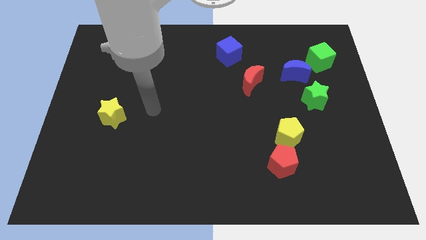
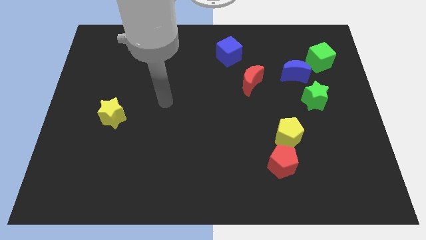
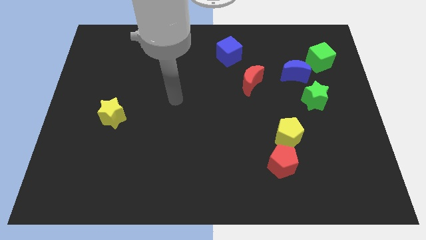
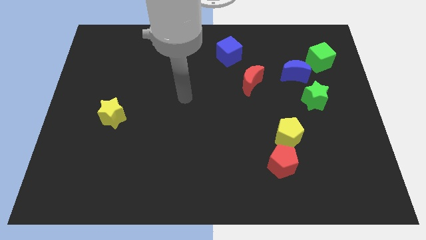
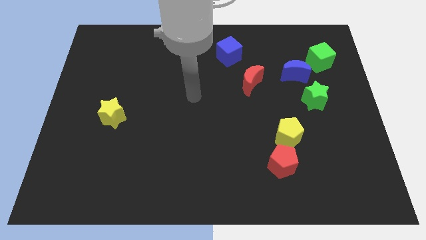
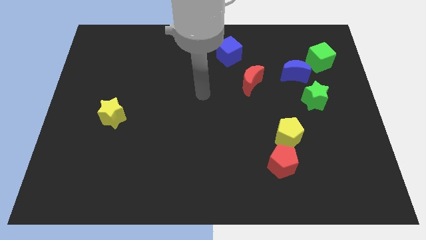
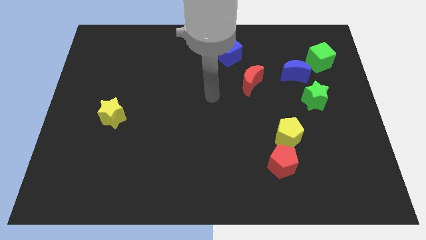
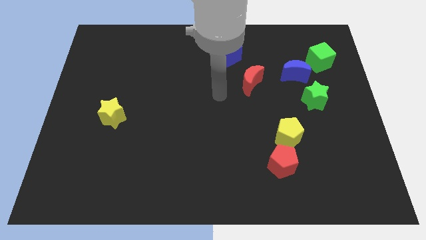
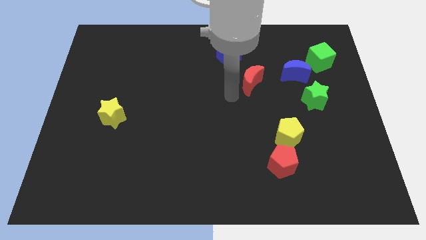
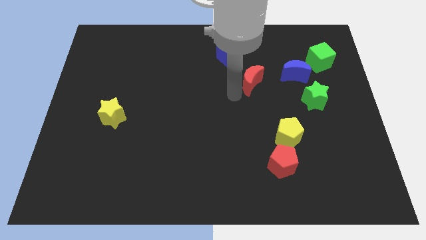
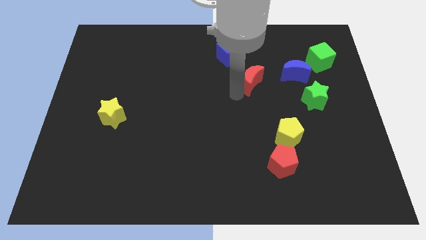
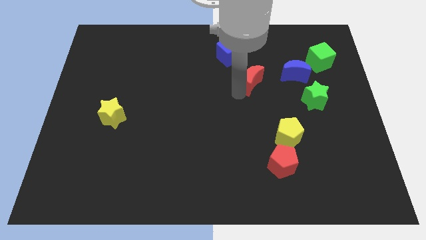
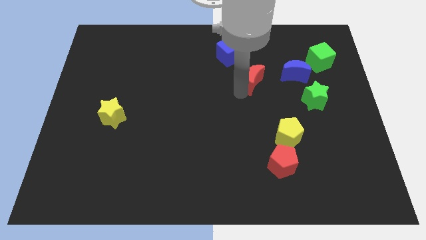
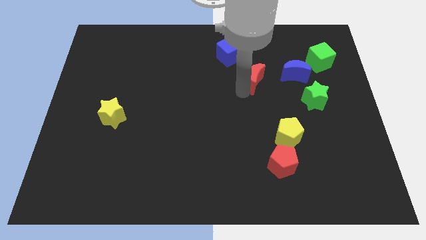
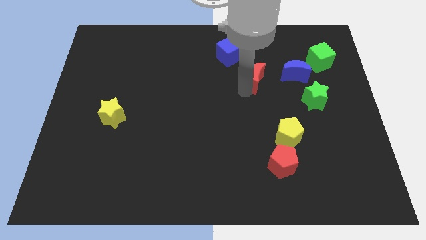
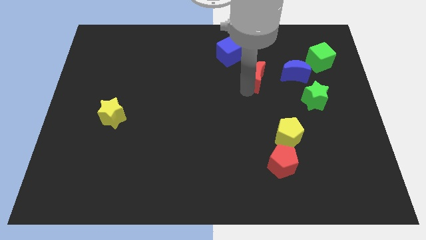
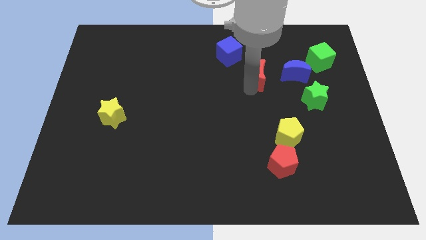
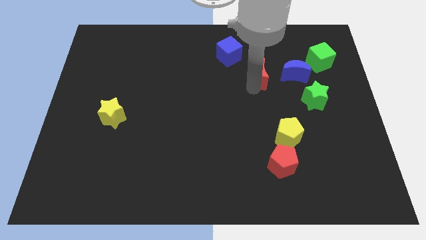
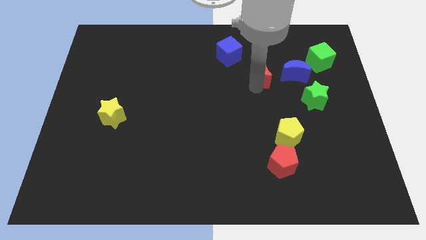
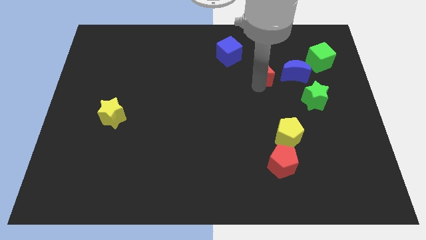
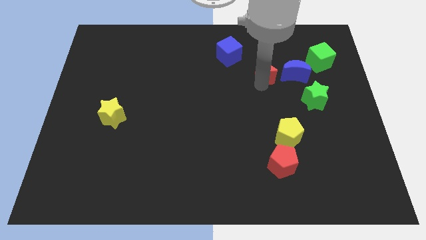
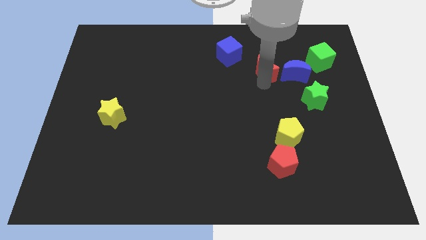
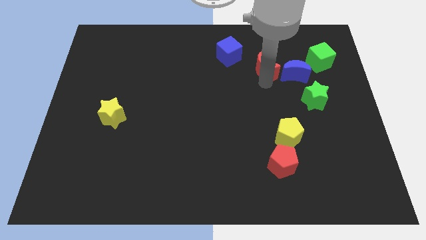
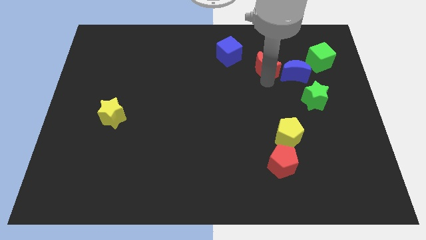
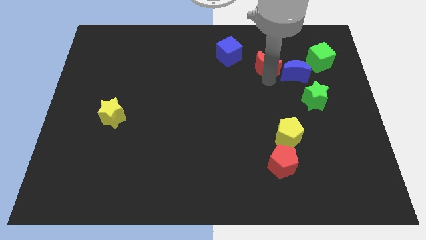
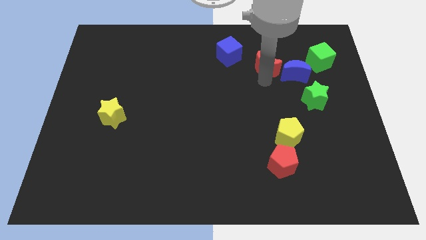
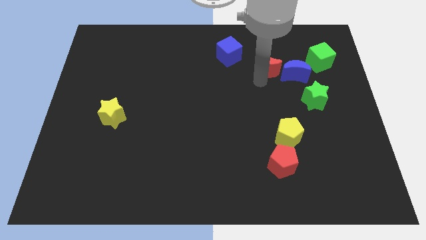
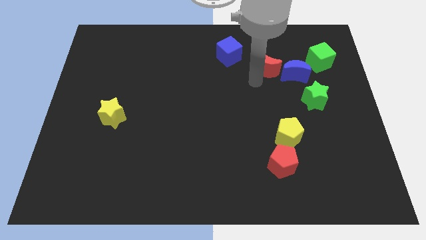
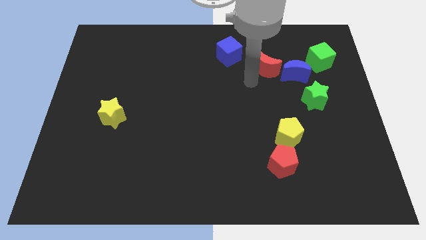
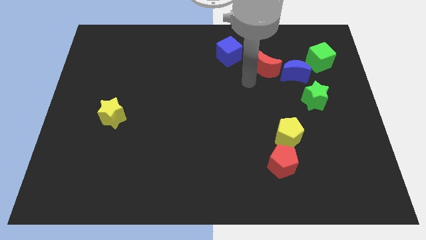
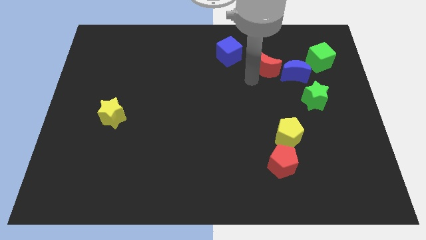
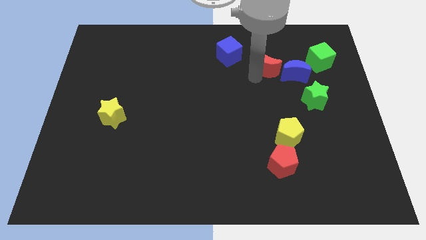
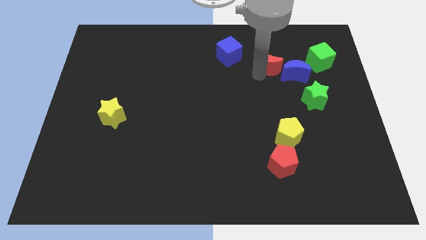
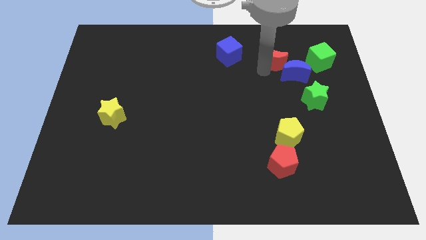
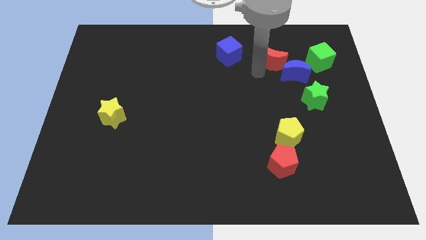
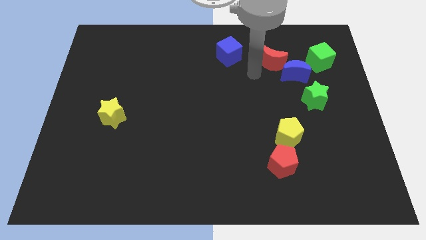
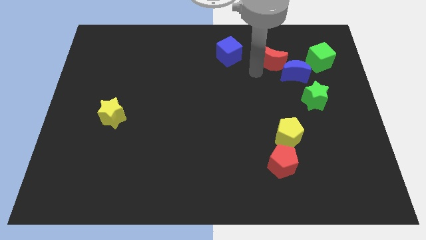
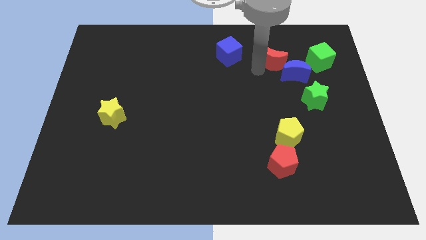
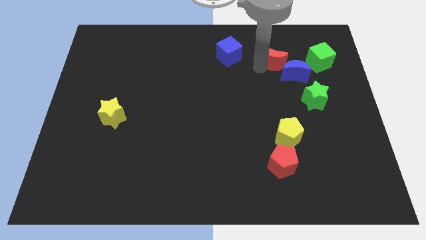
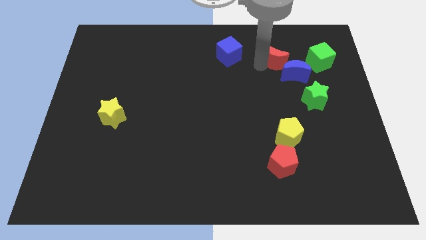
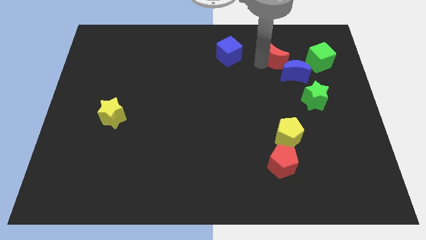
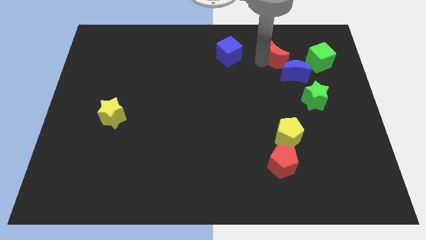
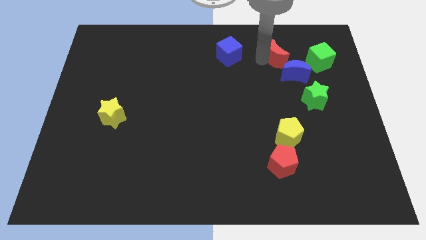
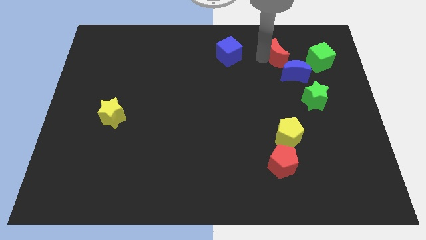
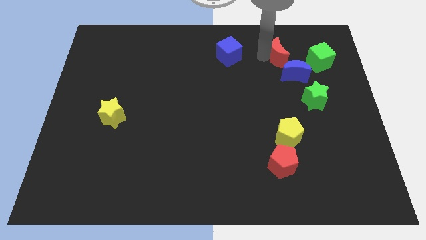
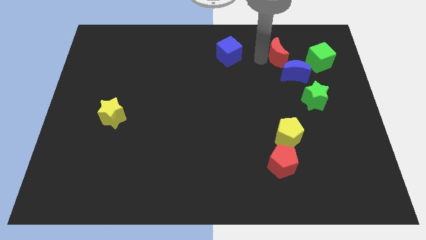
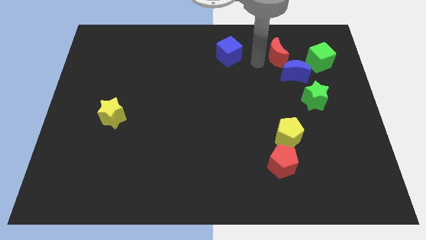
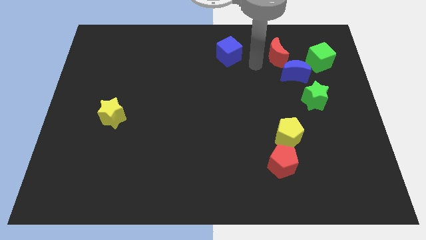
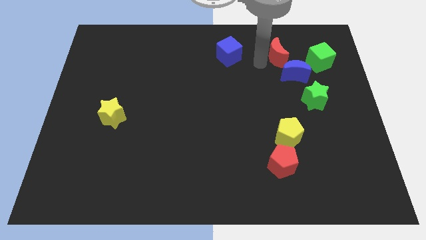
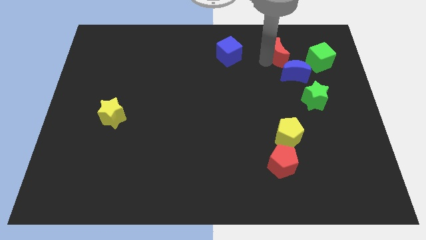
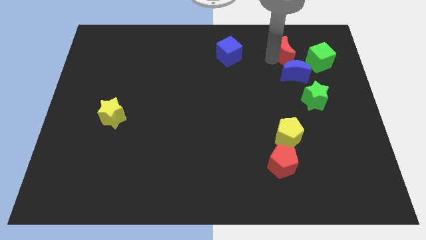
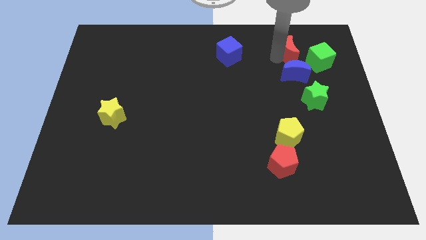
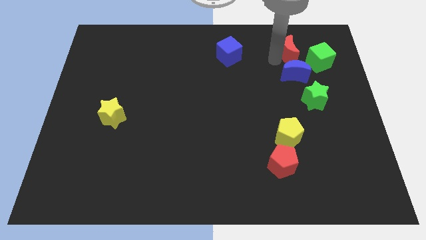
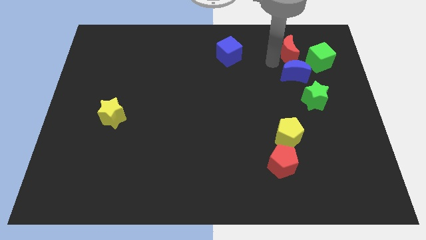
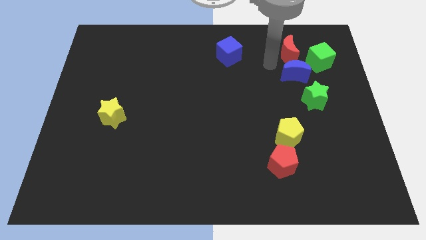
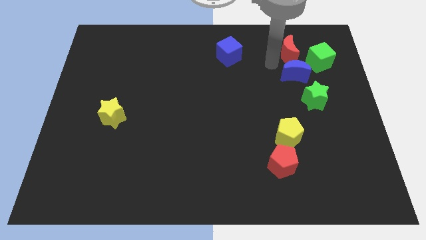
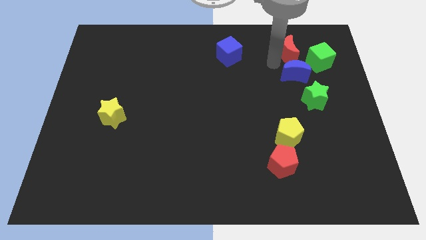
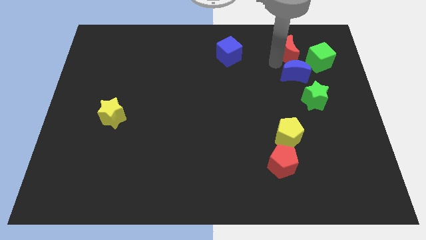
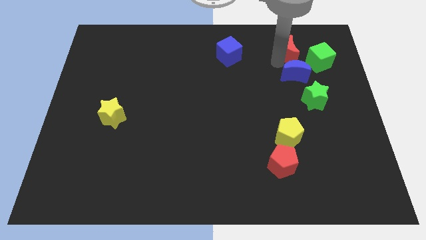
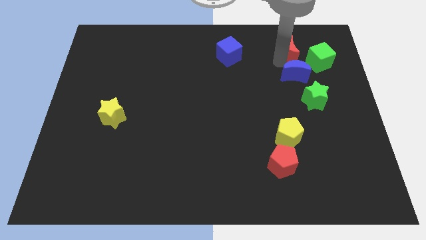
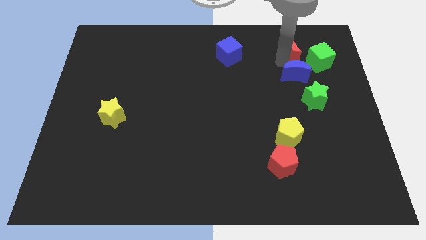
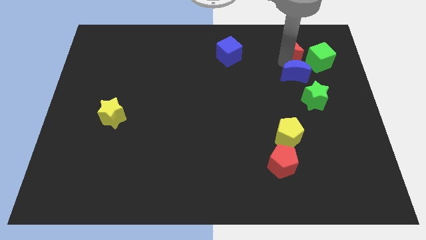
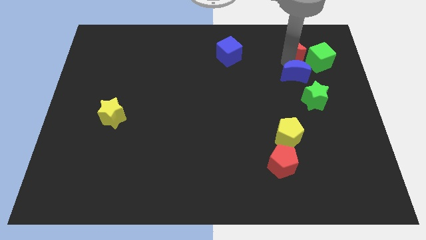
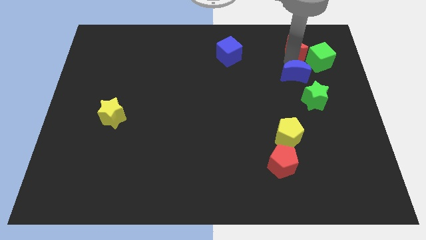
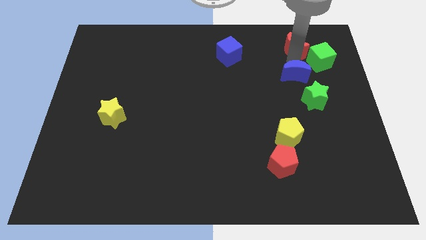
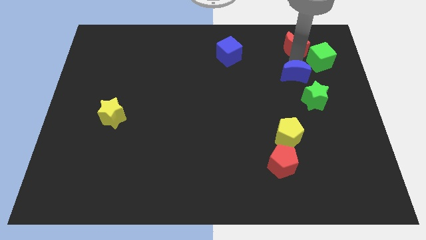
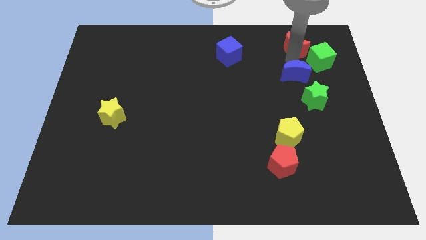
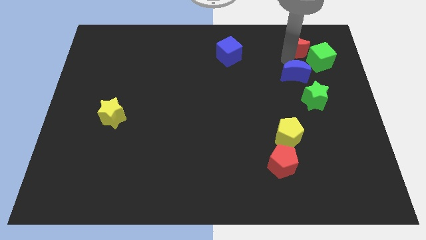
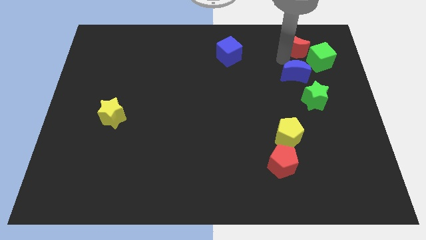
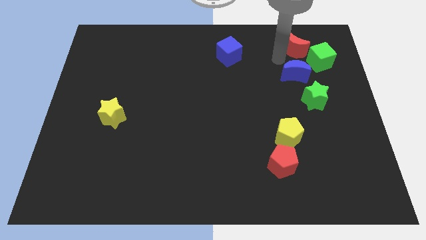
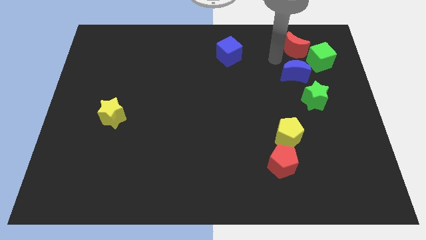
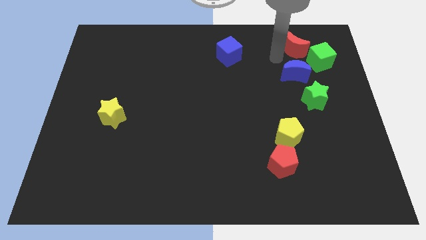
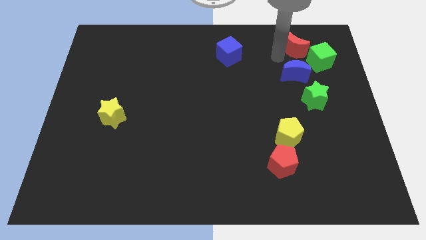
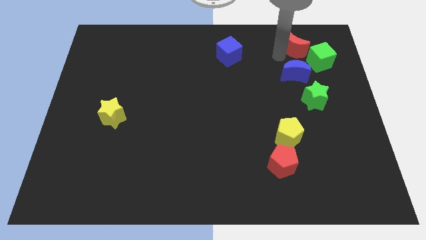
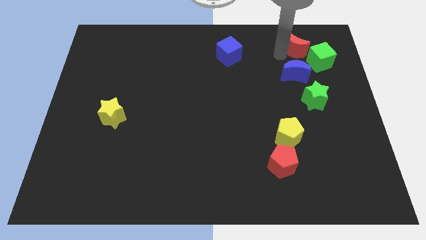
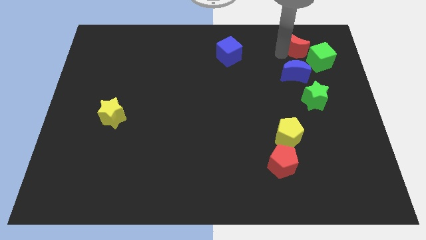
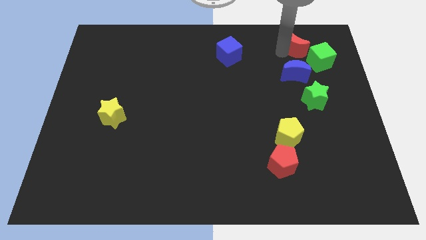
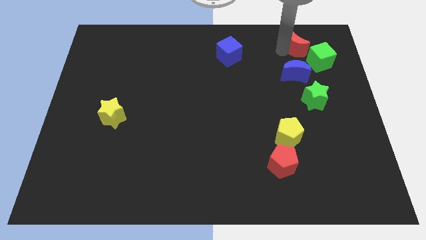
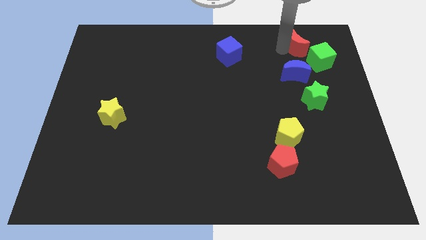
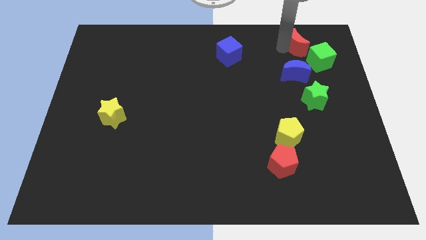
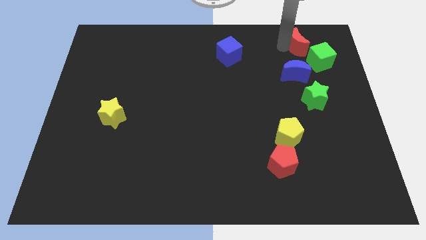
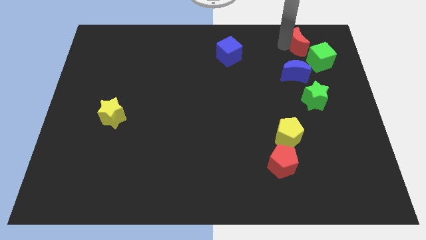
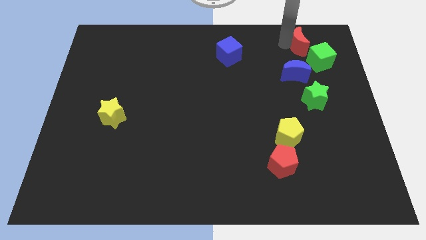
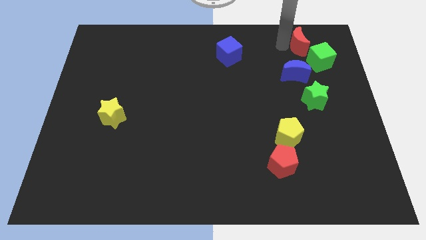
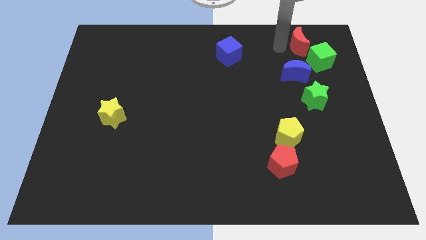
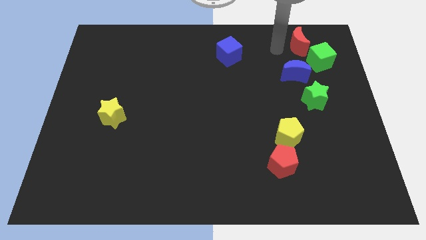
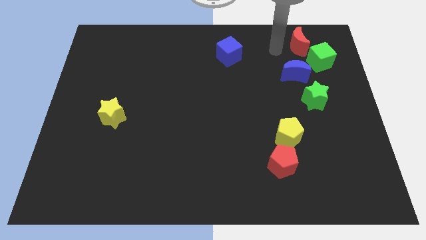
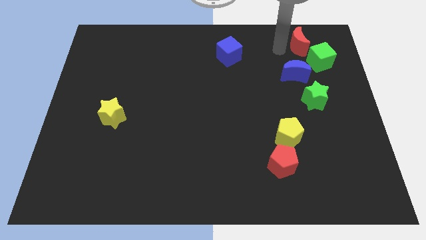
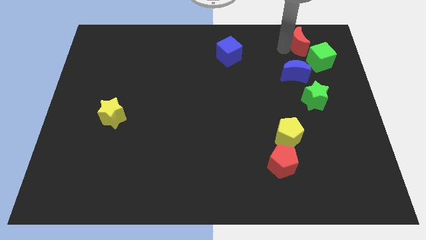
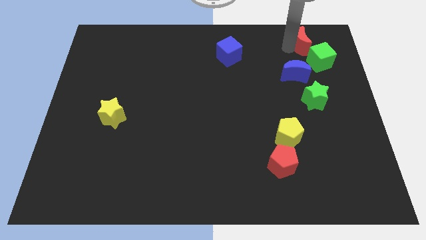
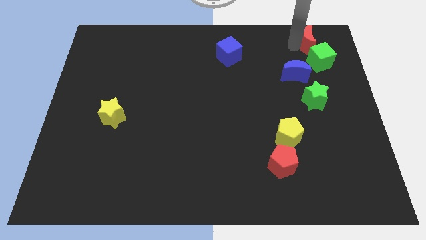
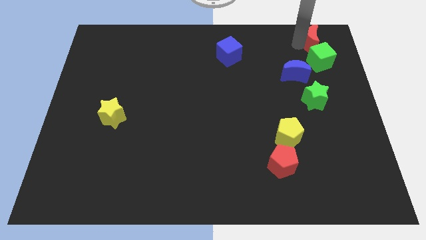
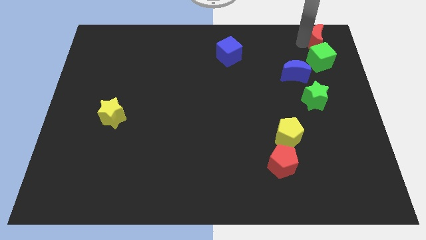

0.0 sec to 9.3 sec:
move the red moon to the top right corner
